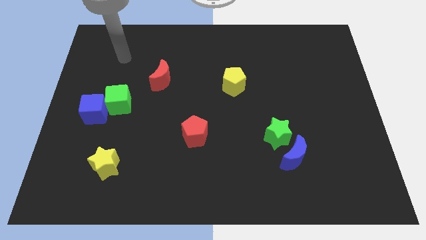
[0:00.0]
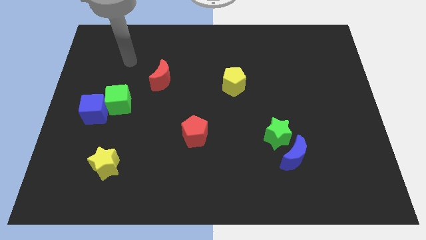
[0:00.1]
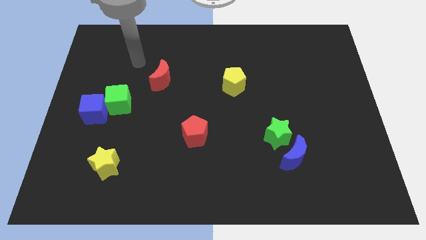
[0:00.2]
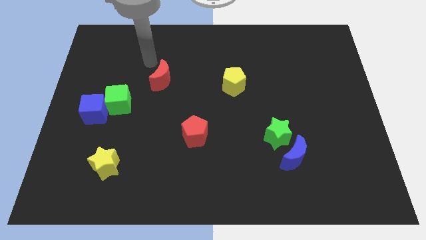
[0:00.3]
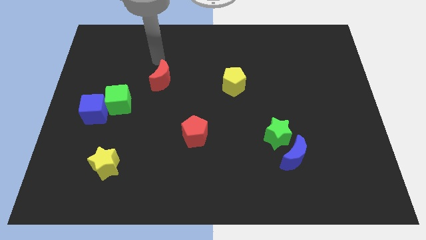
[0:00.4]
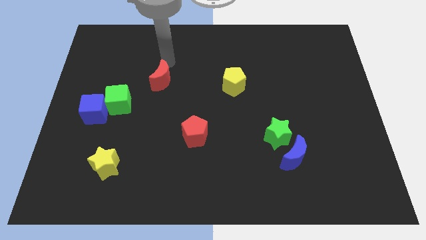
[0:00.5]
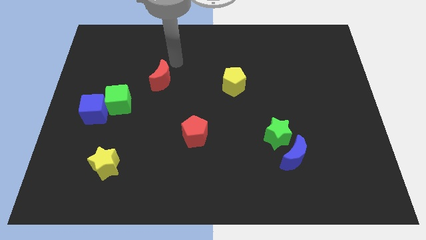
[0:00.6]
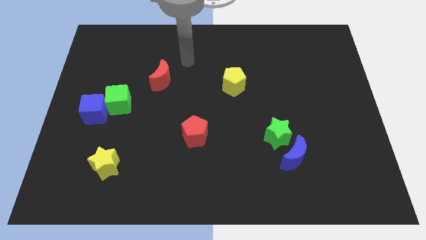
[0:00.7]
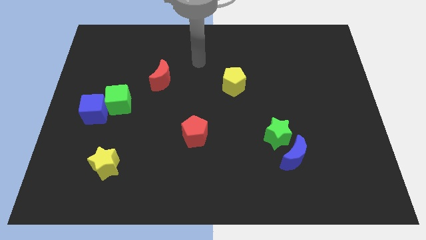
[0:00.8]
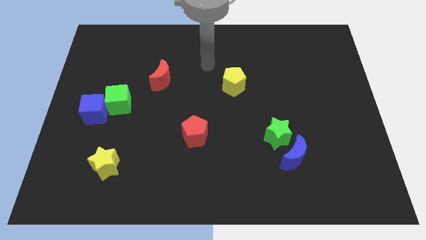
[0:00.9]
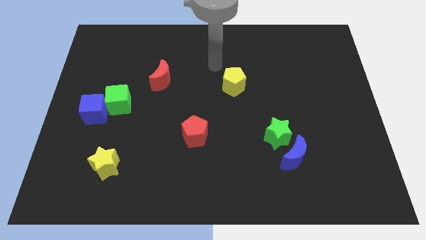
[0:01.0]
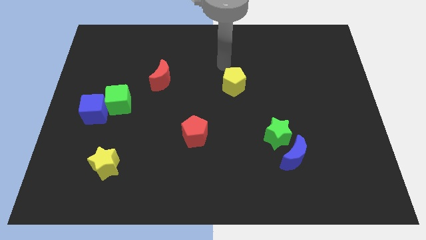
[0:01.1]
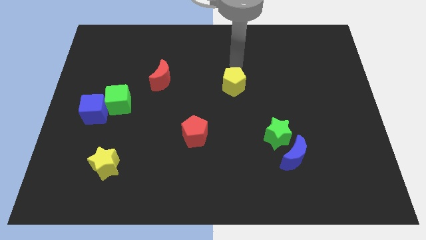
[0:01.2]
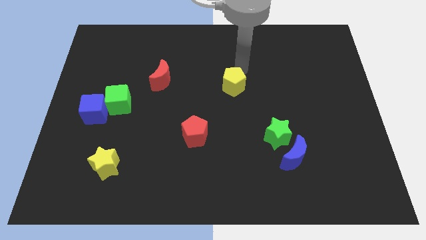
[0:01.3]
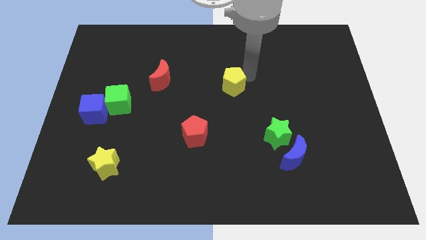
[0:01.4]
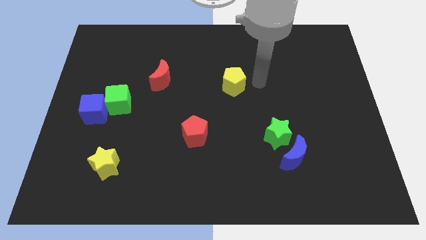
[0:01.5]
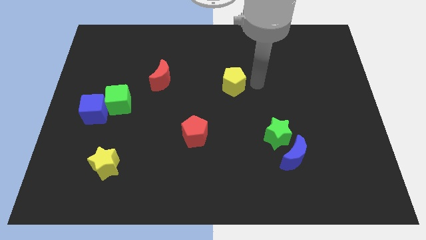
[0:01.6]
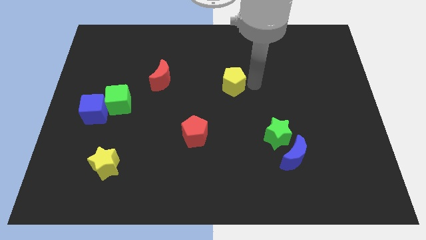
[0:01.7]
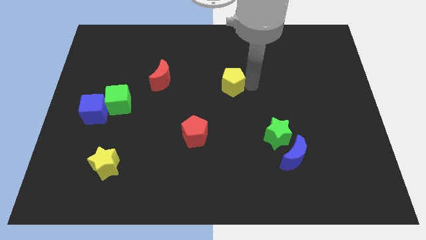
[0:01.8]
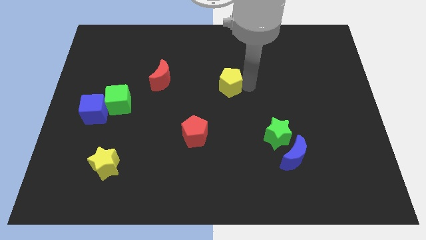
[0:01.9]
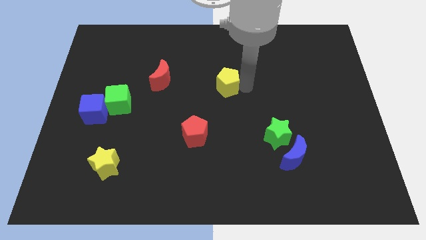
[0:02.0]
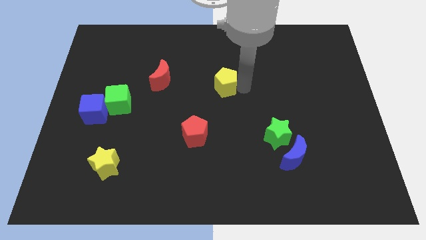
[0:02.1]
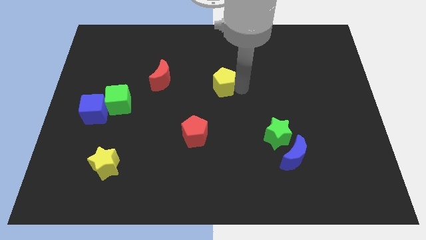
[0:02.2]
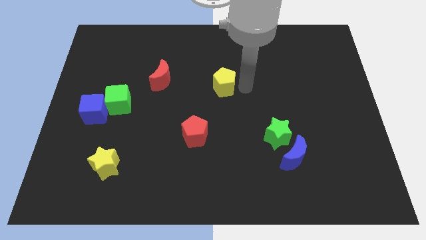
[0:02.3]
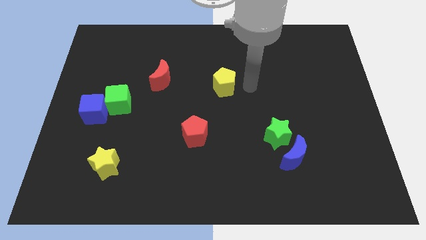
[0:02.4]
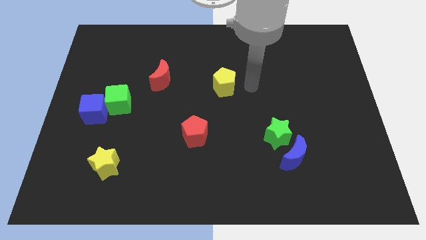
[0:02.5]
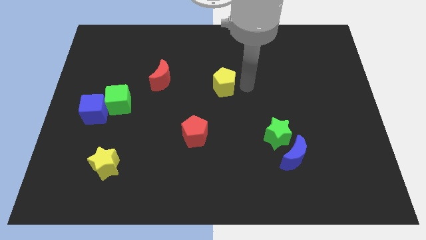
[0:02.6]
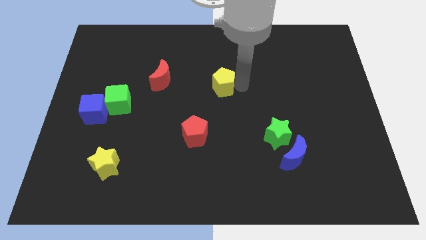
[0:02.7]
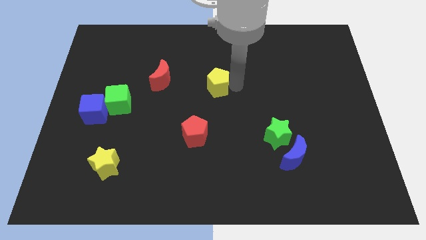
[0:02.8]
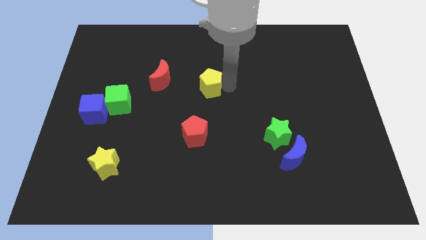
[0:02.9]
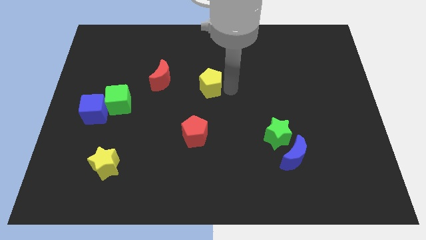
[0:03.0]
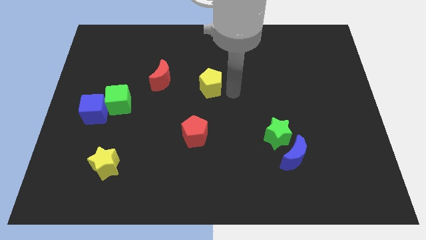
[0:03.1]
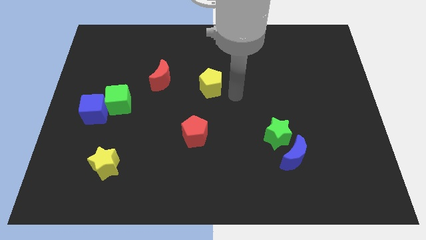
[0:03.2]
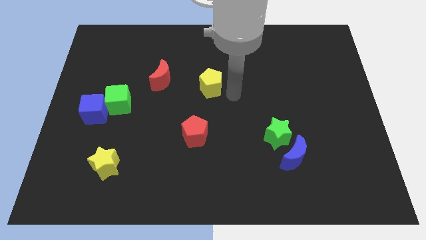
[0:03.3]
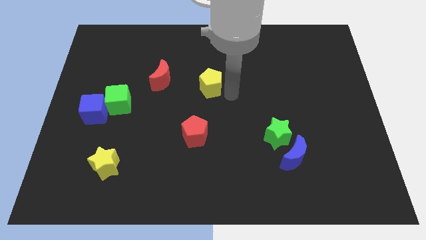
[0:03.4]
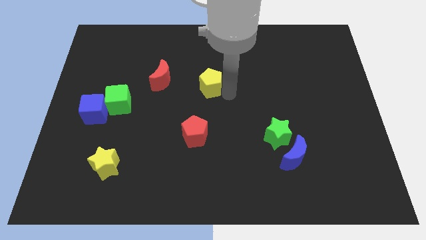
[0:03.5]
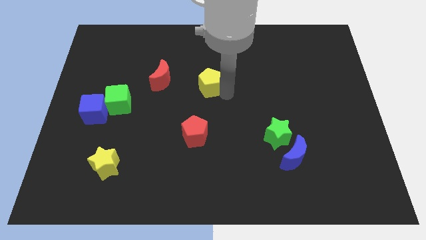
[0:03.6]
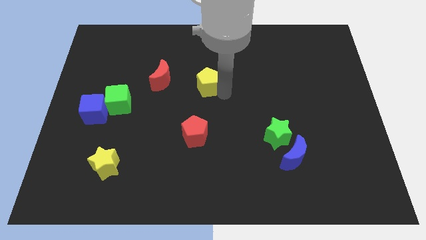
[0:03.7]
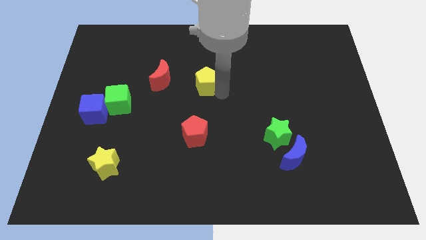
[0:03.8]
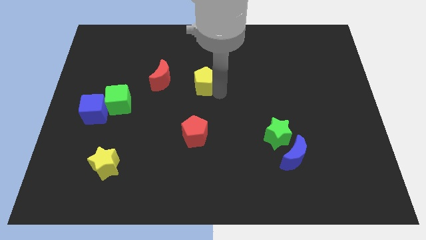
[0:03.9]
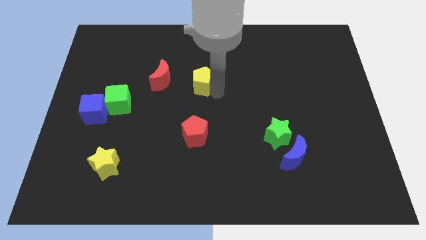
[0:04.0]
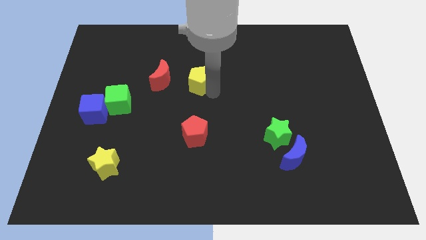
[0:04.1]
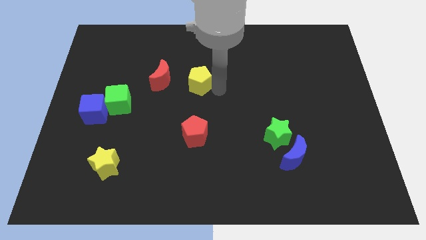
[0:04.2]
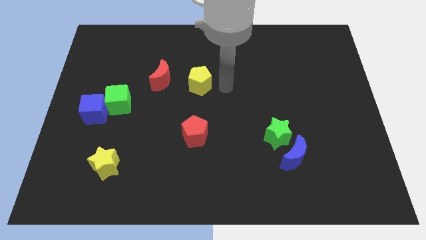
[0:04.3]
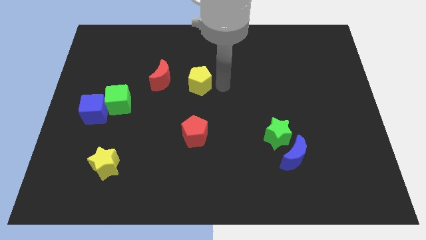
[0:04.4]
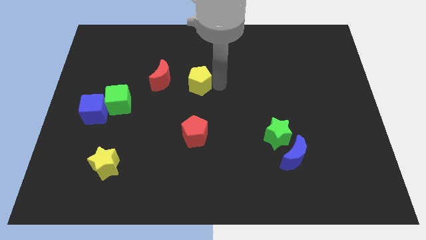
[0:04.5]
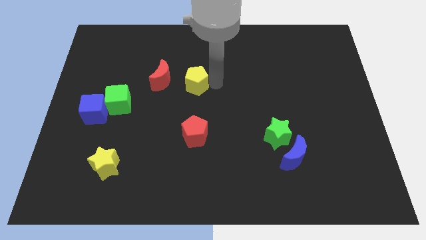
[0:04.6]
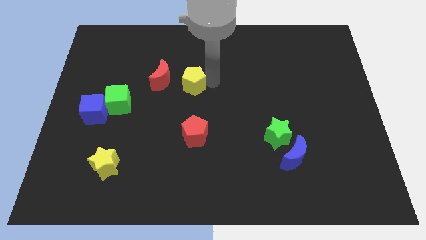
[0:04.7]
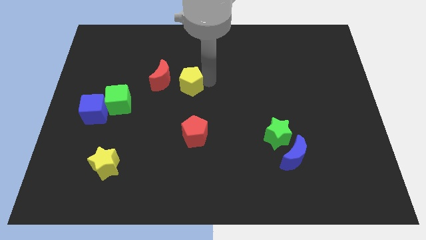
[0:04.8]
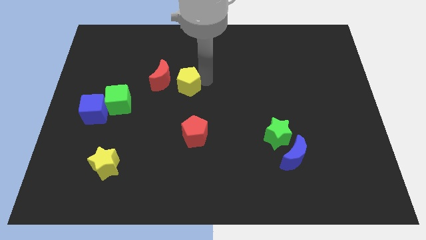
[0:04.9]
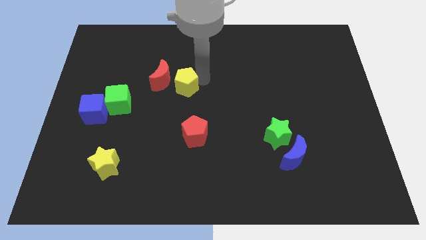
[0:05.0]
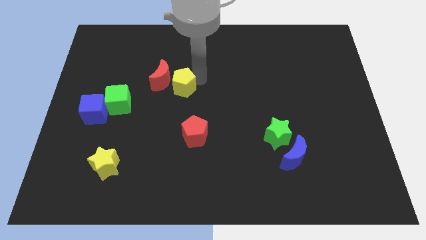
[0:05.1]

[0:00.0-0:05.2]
move the yellow pentagon close to the red moon
